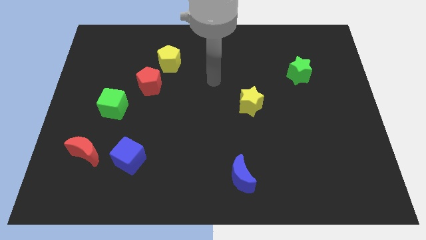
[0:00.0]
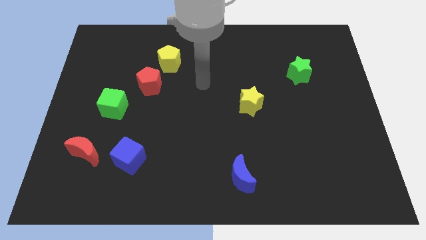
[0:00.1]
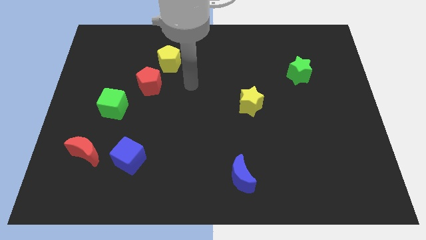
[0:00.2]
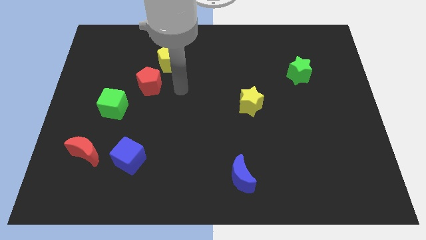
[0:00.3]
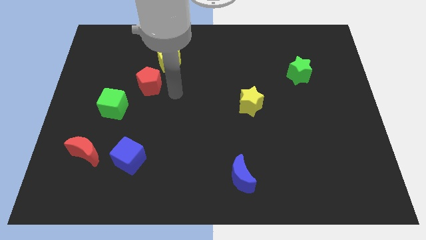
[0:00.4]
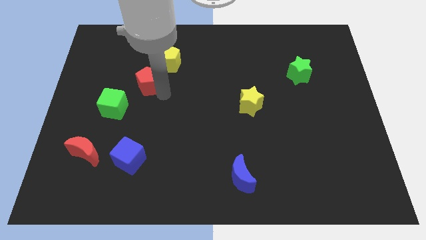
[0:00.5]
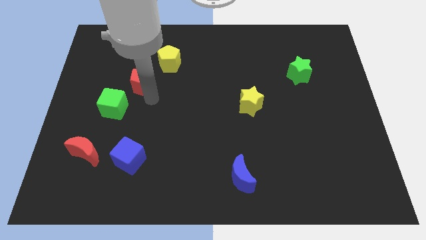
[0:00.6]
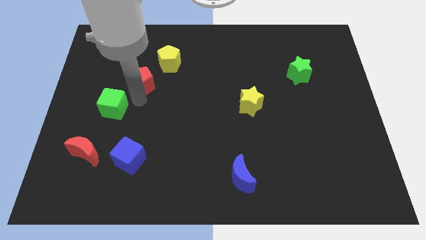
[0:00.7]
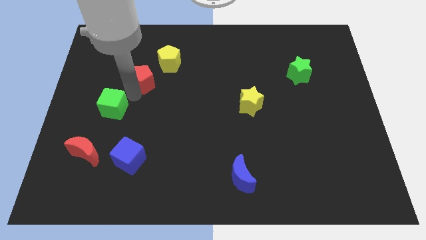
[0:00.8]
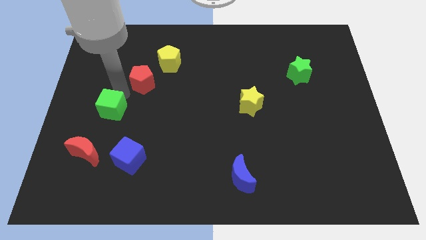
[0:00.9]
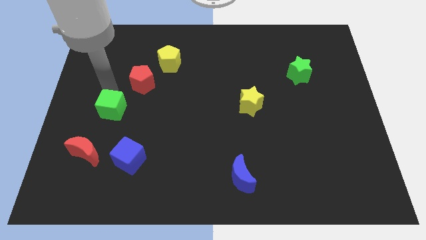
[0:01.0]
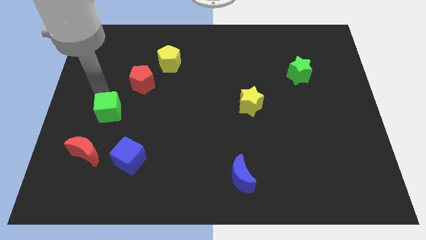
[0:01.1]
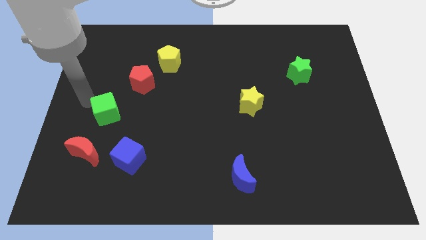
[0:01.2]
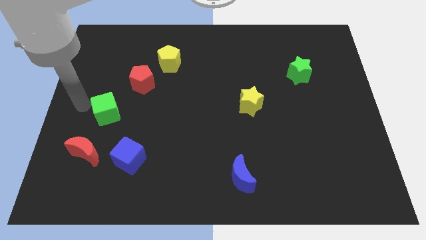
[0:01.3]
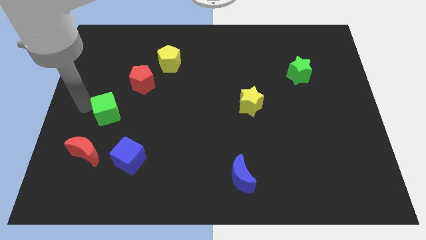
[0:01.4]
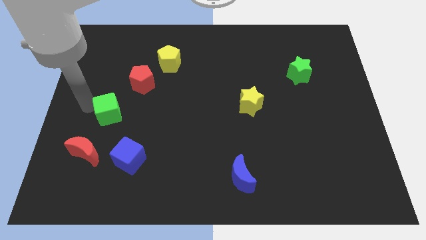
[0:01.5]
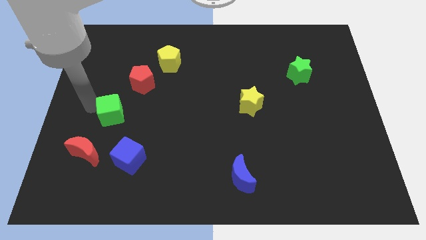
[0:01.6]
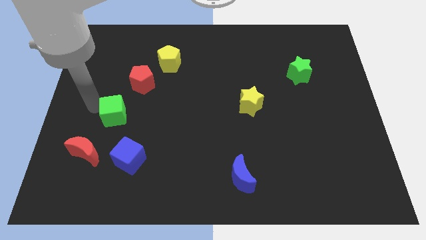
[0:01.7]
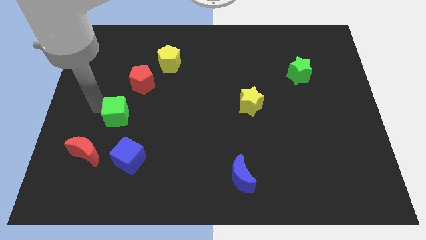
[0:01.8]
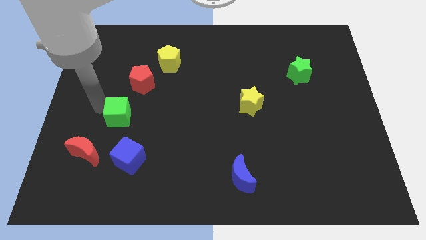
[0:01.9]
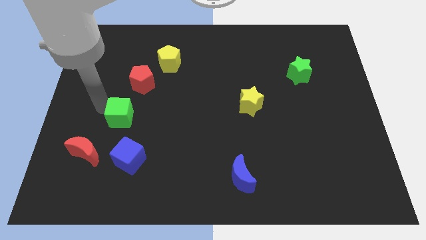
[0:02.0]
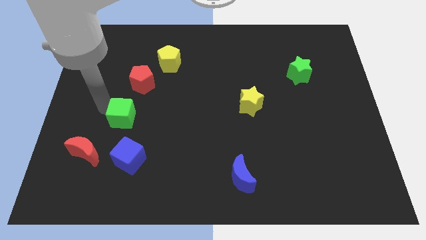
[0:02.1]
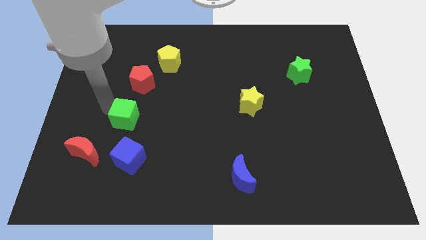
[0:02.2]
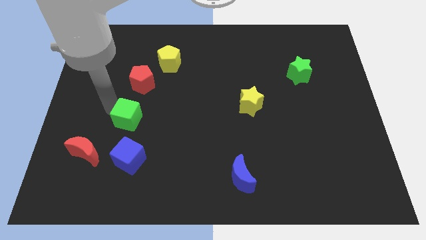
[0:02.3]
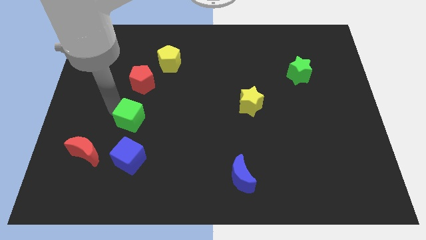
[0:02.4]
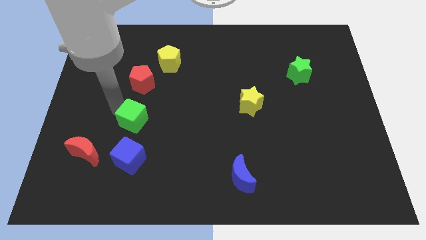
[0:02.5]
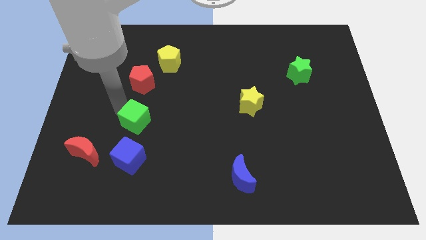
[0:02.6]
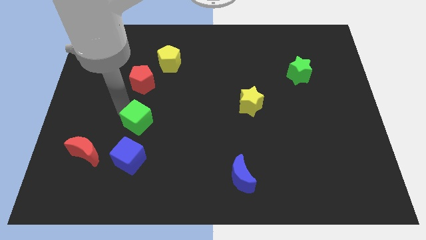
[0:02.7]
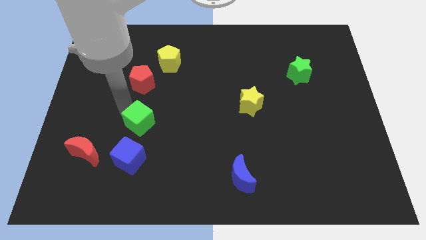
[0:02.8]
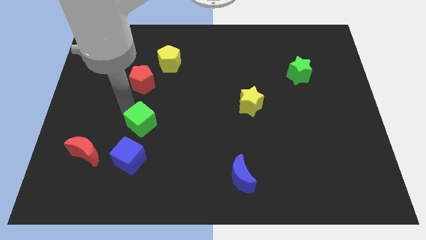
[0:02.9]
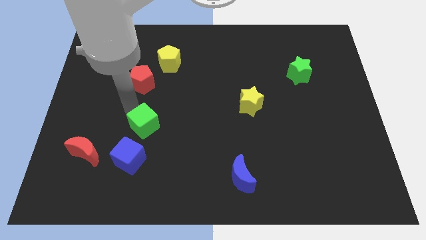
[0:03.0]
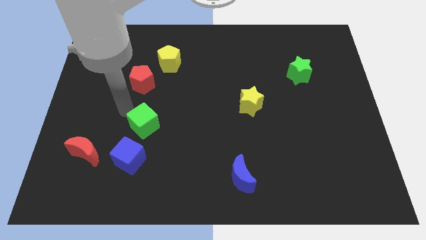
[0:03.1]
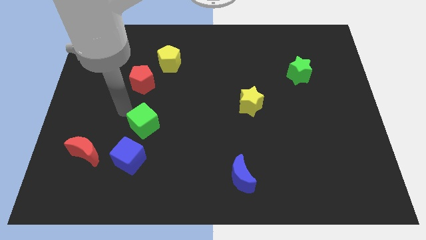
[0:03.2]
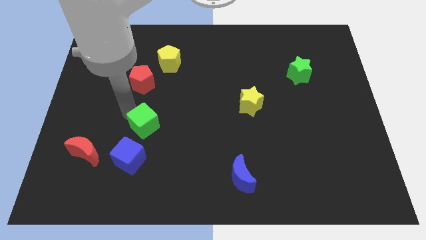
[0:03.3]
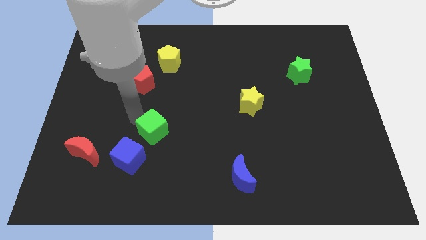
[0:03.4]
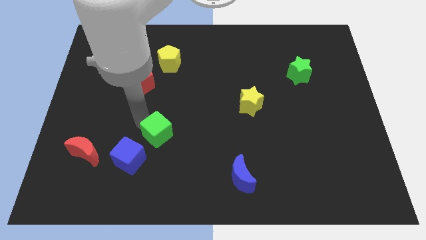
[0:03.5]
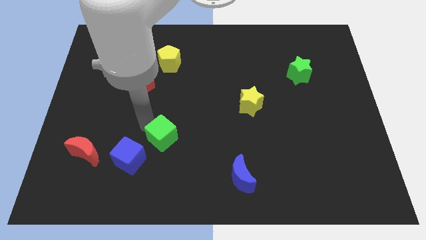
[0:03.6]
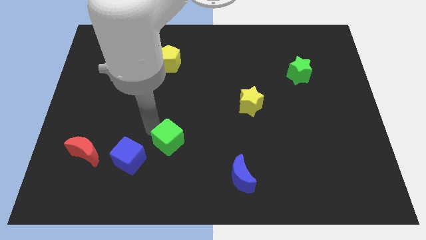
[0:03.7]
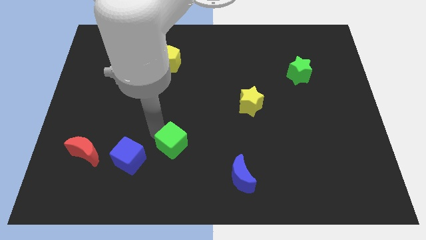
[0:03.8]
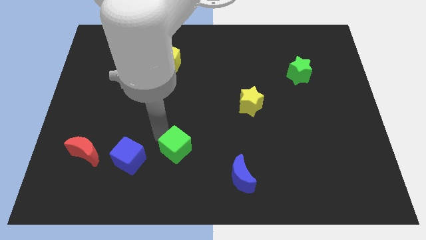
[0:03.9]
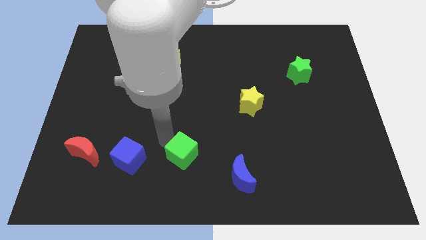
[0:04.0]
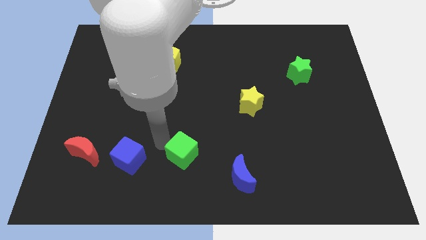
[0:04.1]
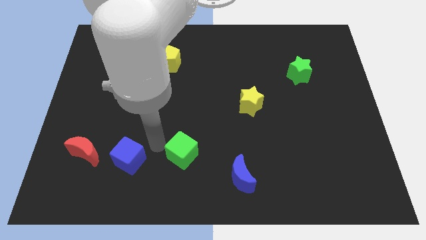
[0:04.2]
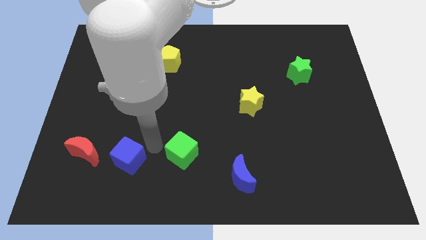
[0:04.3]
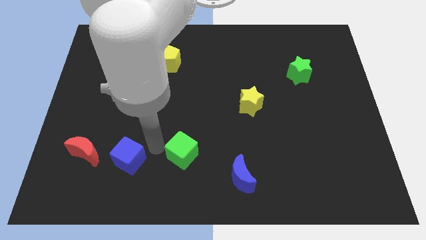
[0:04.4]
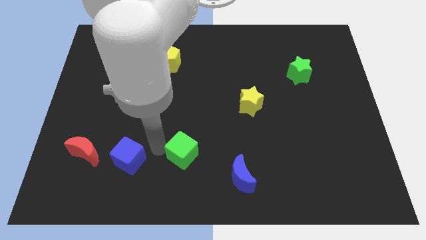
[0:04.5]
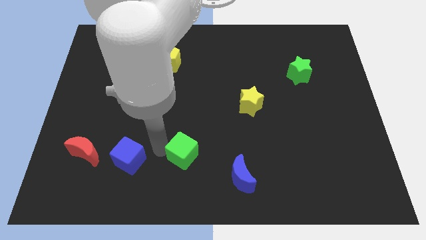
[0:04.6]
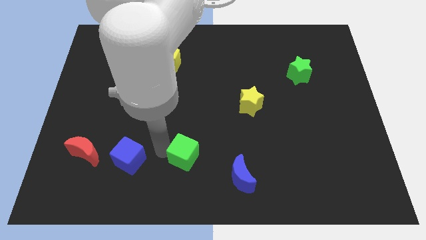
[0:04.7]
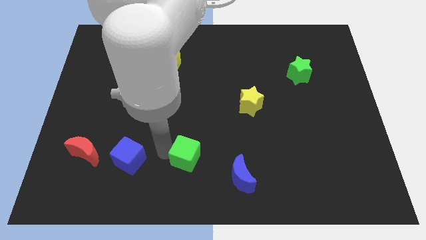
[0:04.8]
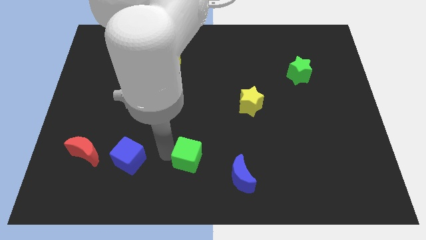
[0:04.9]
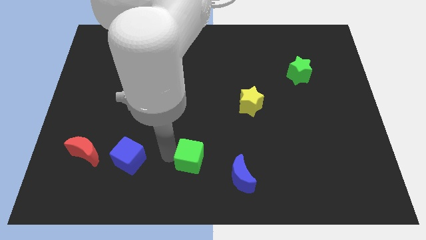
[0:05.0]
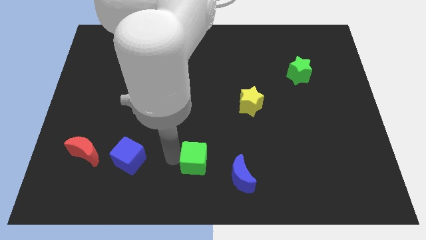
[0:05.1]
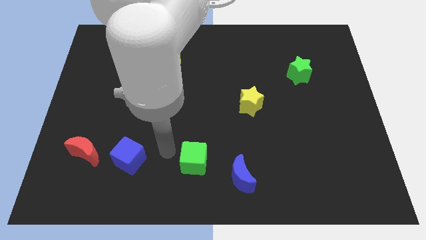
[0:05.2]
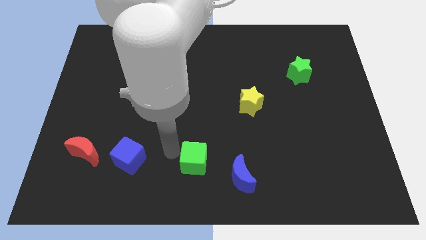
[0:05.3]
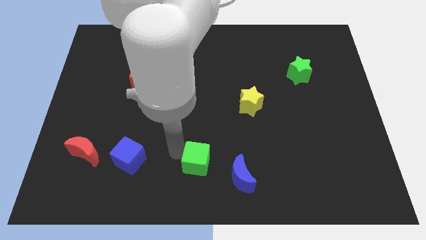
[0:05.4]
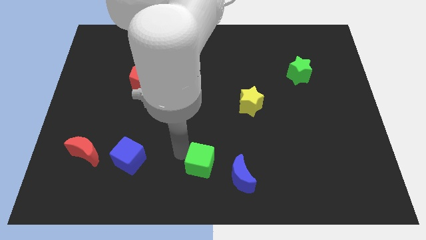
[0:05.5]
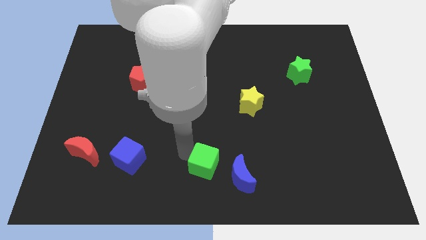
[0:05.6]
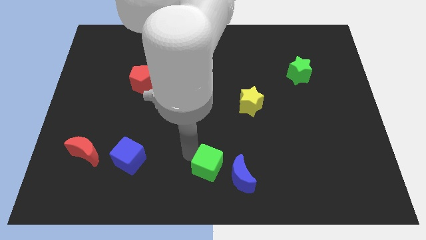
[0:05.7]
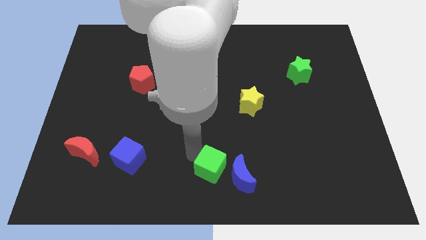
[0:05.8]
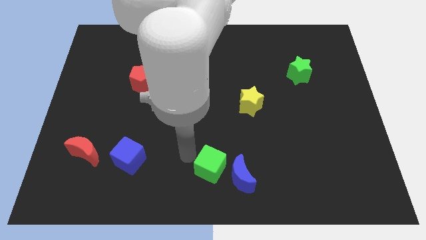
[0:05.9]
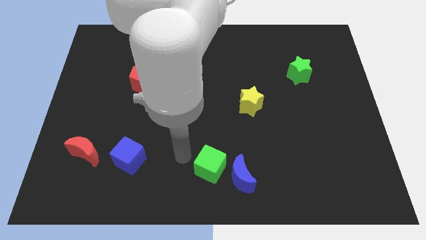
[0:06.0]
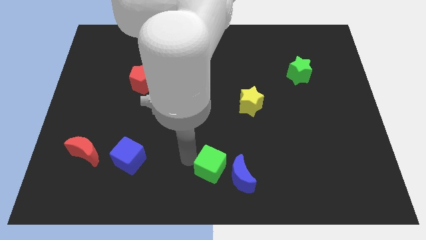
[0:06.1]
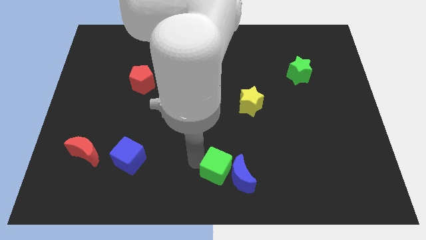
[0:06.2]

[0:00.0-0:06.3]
push the green cube close to the blue moon

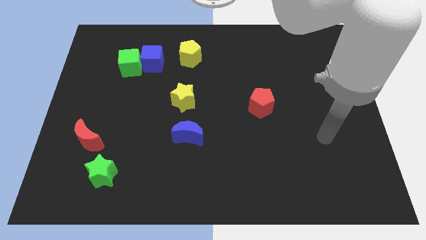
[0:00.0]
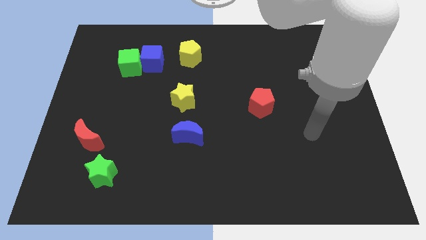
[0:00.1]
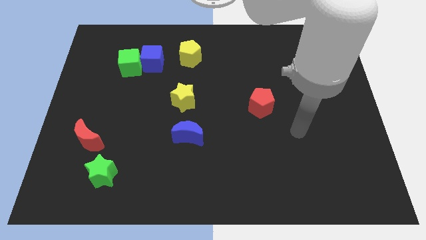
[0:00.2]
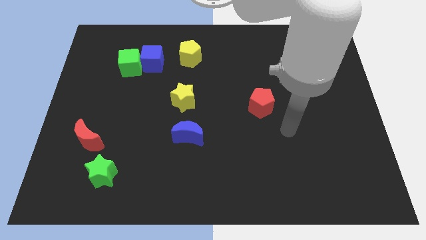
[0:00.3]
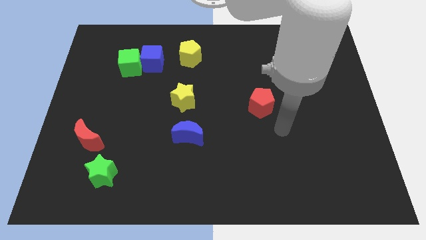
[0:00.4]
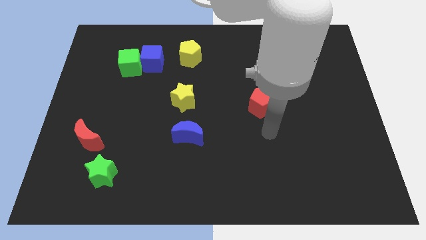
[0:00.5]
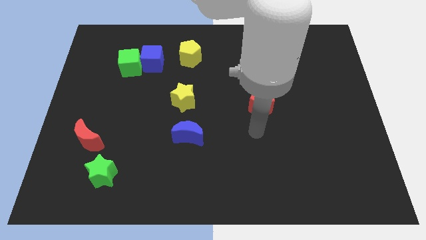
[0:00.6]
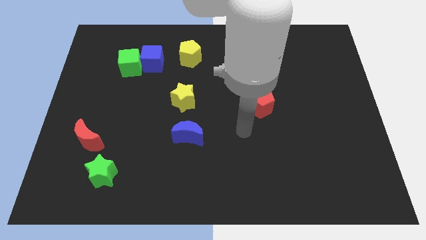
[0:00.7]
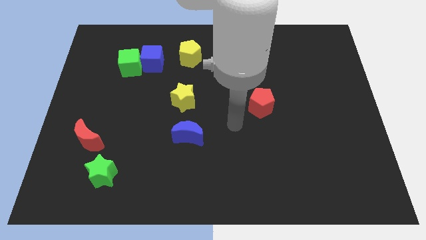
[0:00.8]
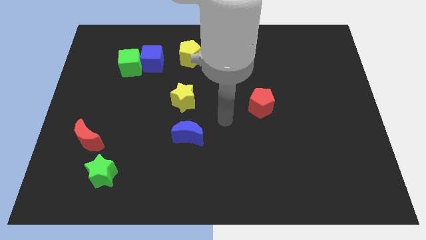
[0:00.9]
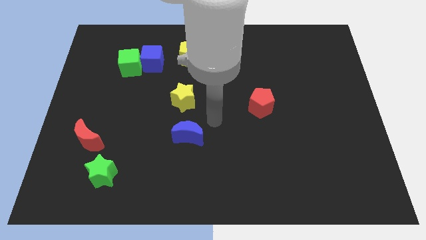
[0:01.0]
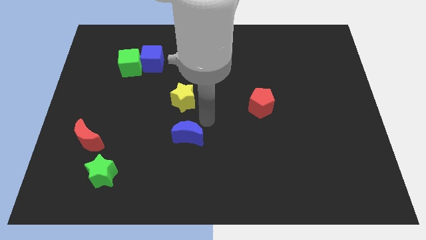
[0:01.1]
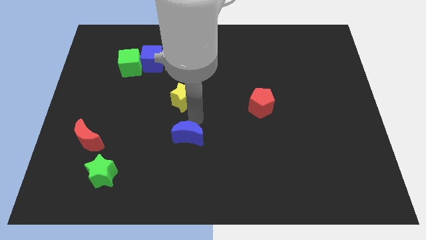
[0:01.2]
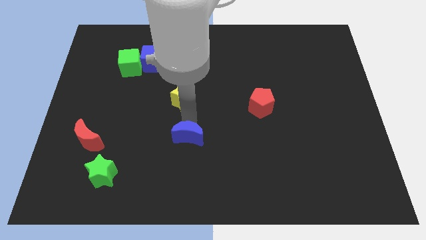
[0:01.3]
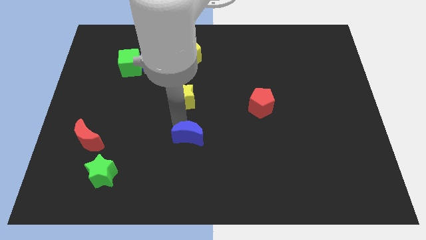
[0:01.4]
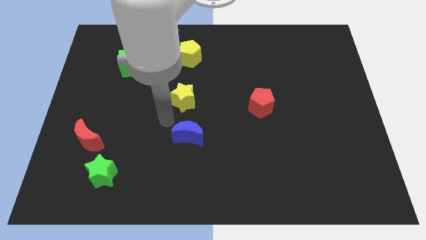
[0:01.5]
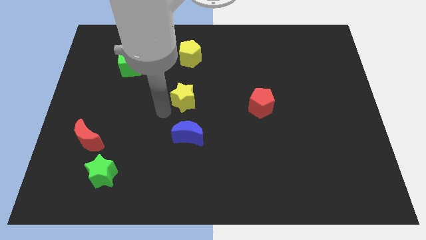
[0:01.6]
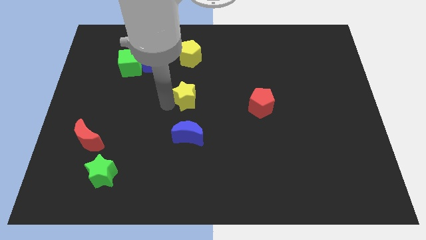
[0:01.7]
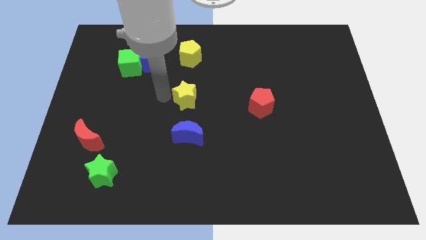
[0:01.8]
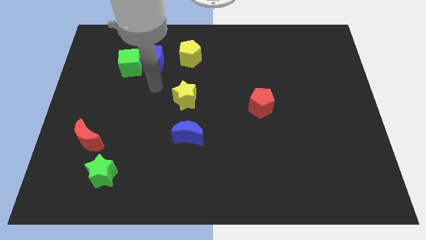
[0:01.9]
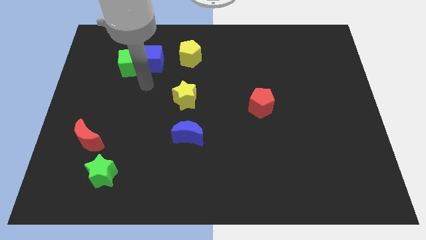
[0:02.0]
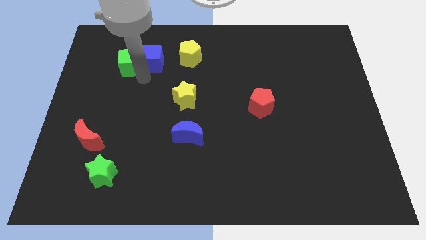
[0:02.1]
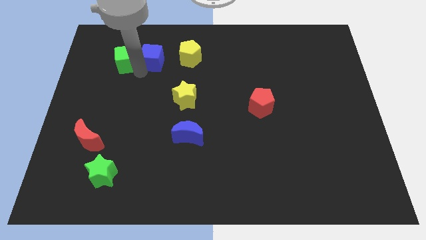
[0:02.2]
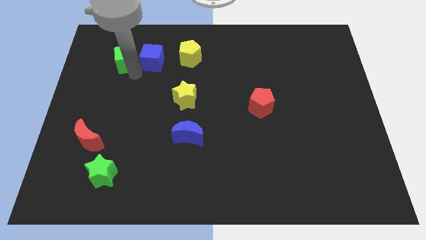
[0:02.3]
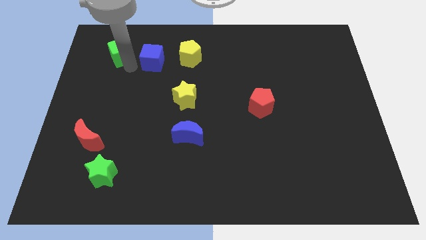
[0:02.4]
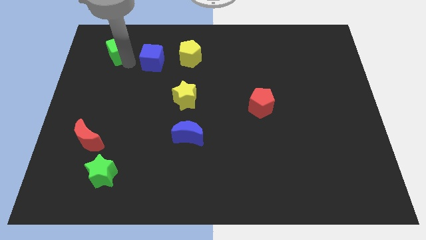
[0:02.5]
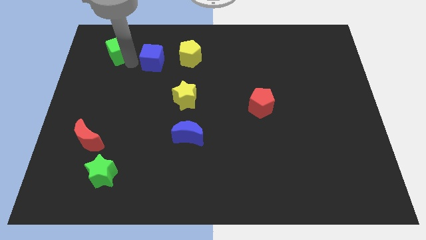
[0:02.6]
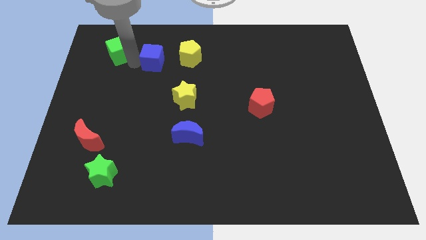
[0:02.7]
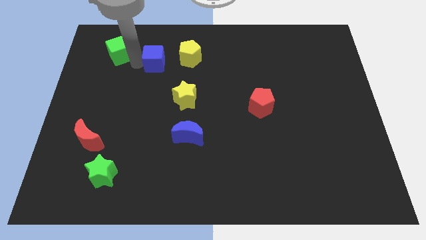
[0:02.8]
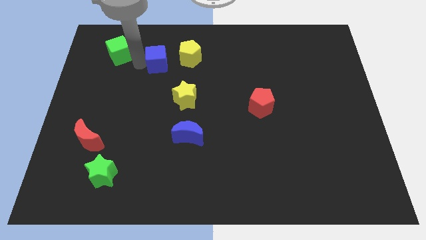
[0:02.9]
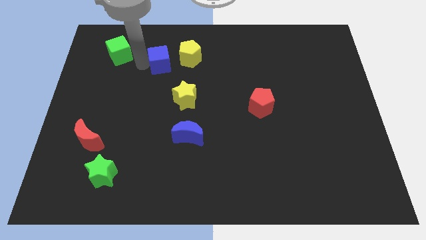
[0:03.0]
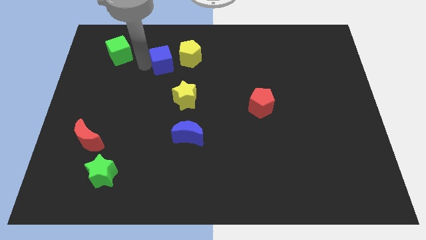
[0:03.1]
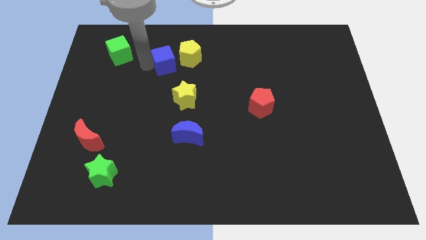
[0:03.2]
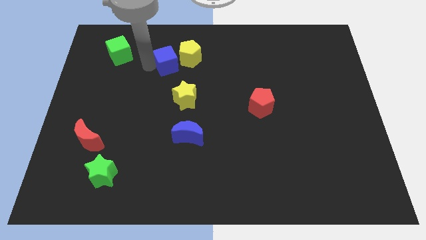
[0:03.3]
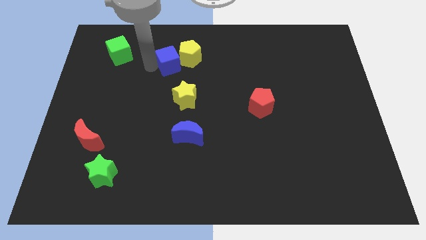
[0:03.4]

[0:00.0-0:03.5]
move the blue cube close to the yellow pentagon
